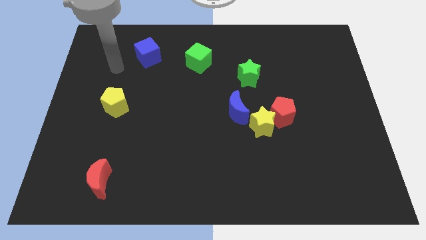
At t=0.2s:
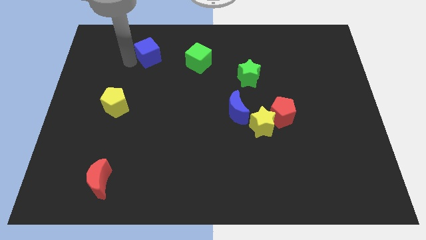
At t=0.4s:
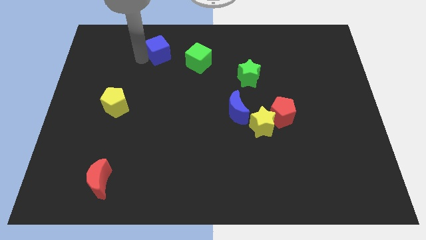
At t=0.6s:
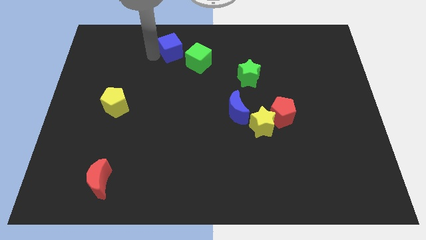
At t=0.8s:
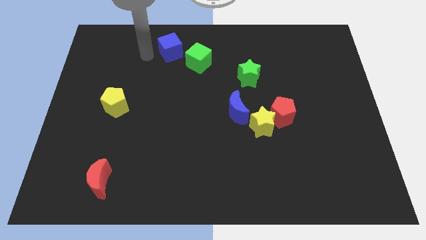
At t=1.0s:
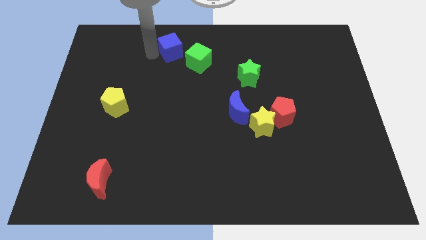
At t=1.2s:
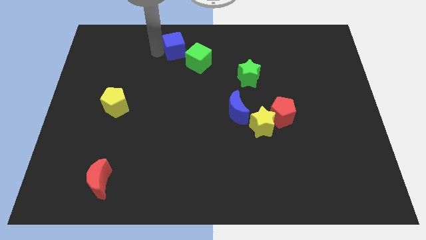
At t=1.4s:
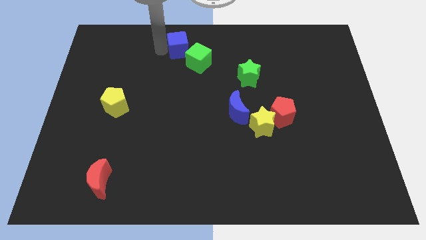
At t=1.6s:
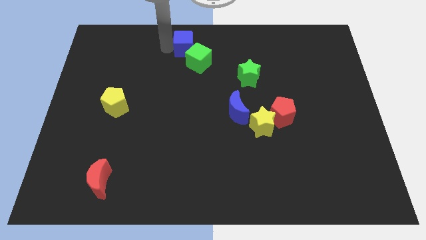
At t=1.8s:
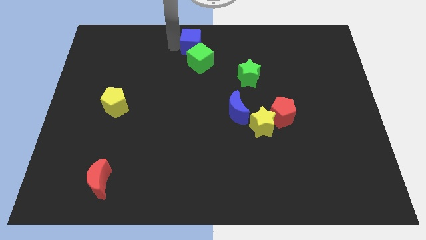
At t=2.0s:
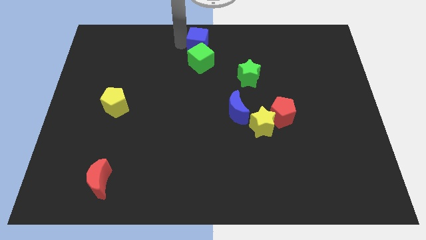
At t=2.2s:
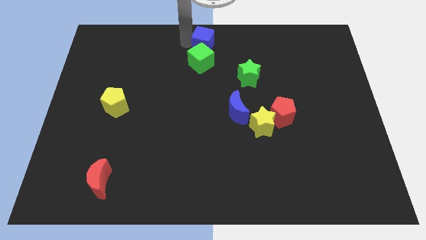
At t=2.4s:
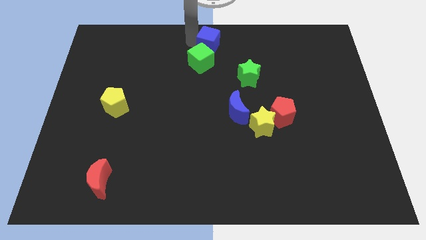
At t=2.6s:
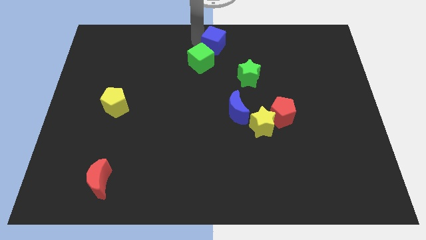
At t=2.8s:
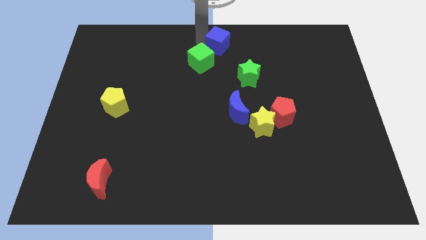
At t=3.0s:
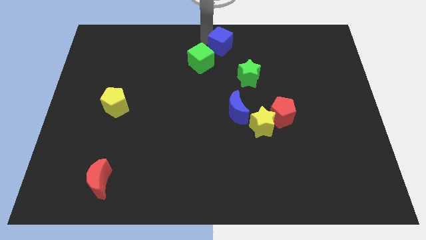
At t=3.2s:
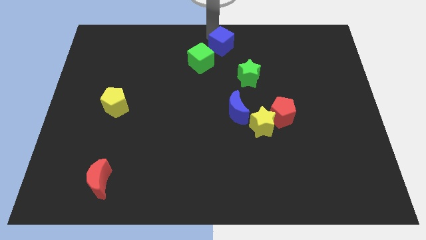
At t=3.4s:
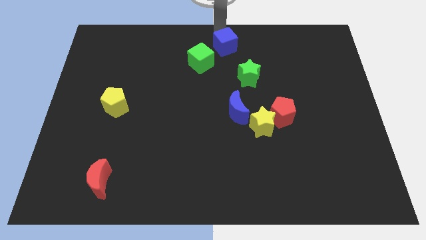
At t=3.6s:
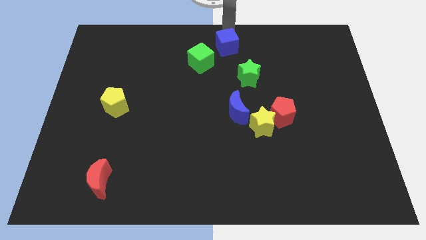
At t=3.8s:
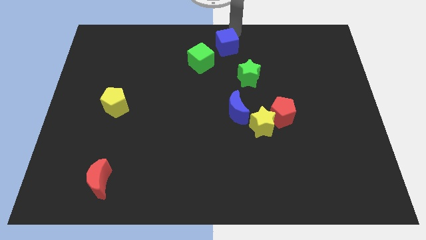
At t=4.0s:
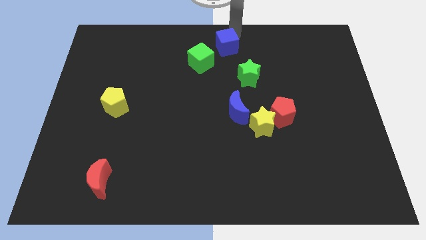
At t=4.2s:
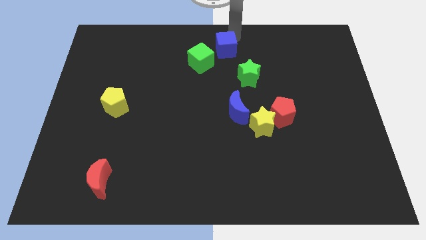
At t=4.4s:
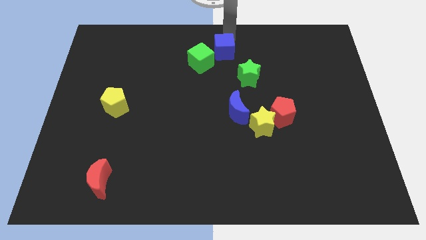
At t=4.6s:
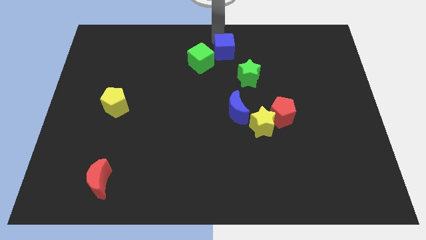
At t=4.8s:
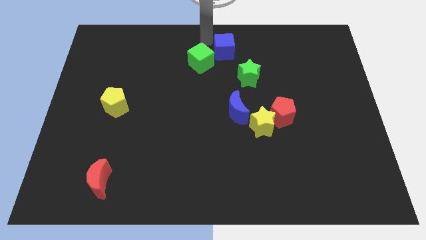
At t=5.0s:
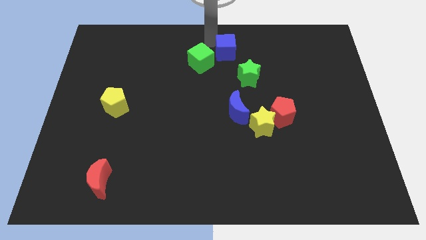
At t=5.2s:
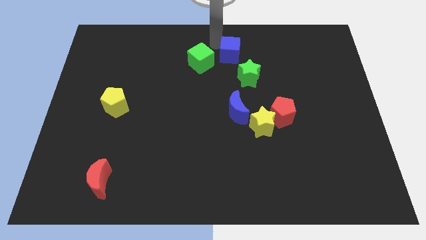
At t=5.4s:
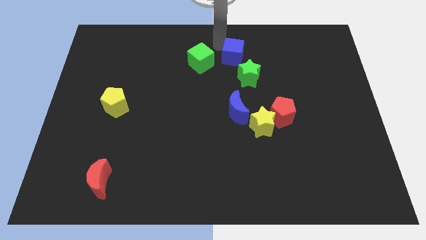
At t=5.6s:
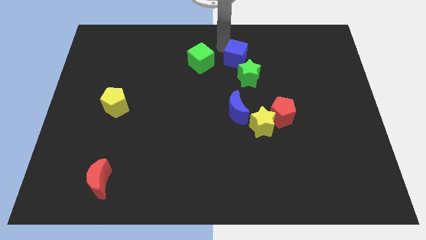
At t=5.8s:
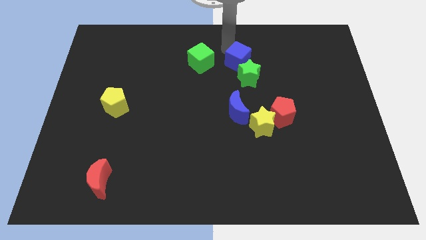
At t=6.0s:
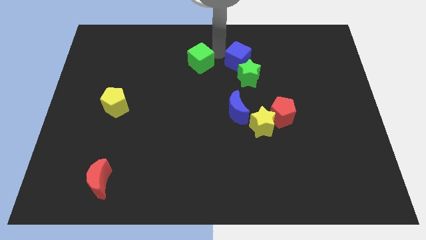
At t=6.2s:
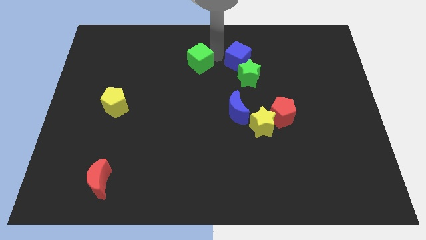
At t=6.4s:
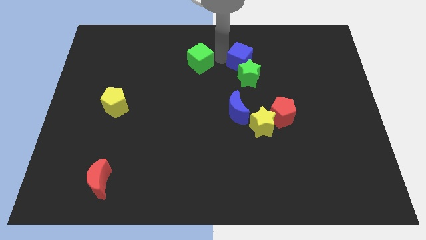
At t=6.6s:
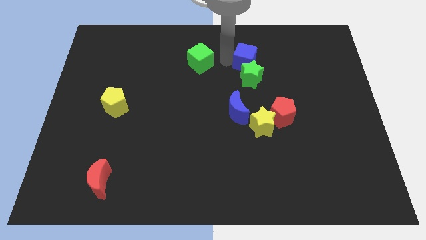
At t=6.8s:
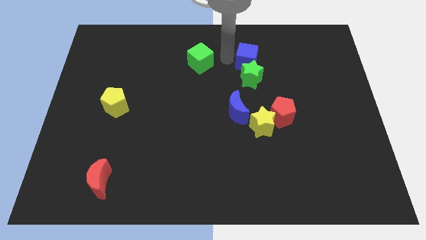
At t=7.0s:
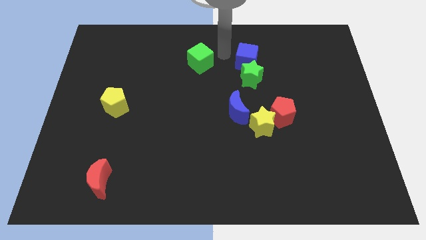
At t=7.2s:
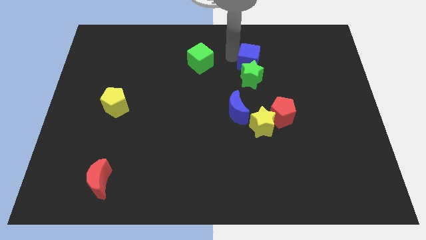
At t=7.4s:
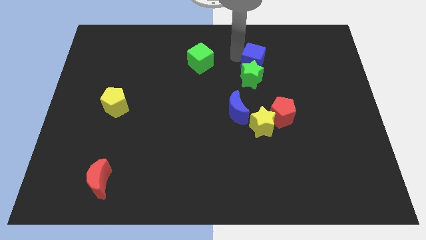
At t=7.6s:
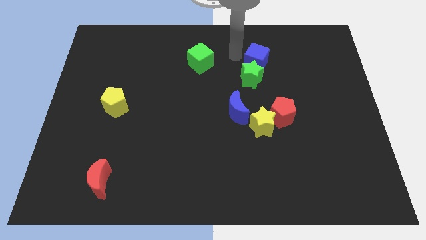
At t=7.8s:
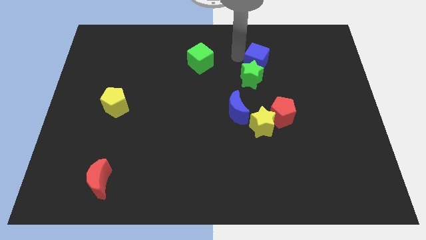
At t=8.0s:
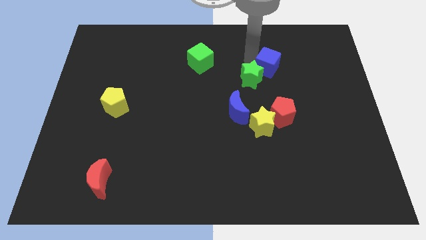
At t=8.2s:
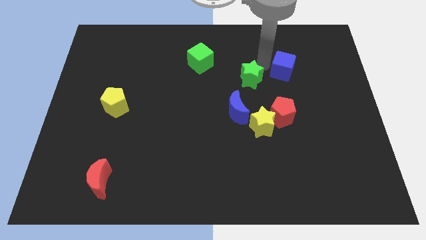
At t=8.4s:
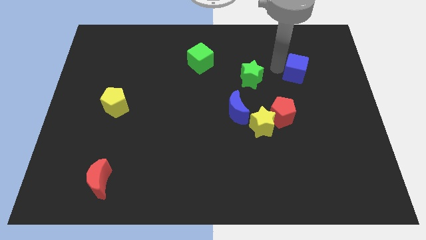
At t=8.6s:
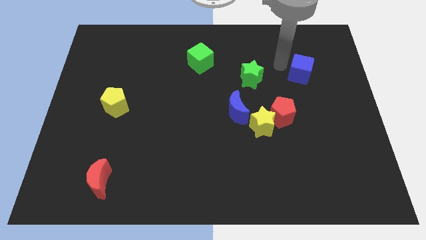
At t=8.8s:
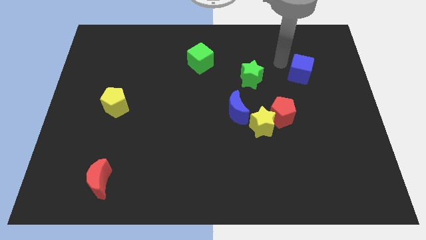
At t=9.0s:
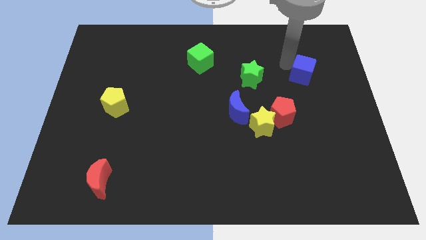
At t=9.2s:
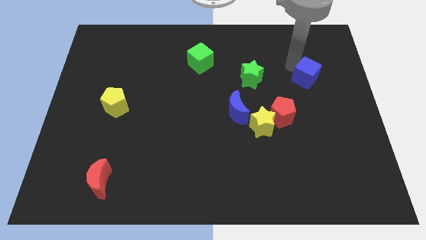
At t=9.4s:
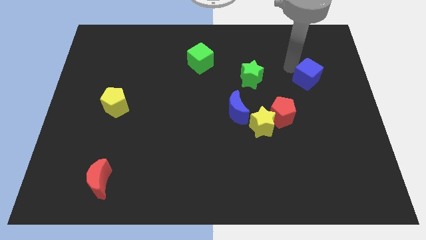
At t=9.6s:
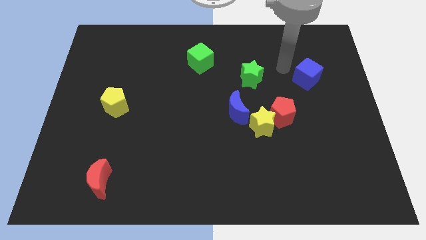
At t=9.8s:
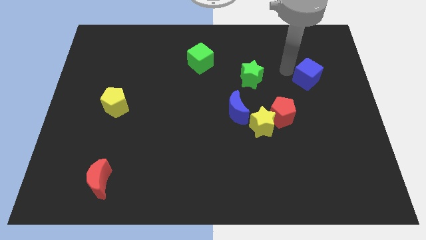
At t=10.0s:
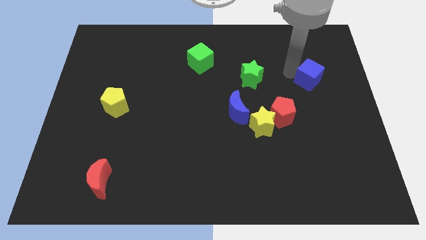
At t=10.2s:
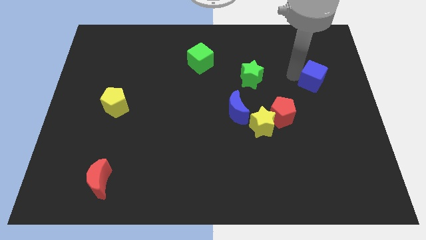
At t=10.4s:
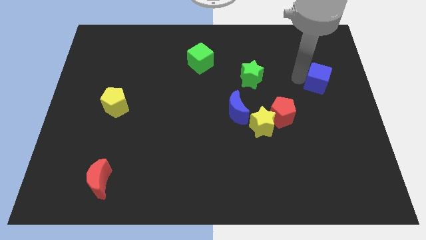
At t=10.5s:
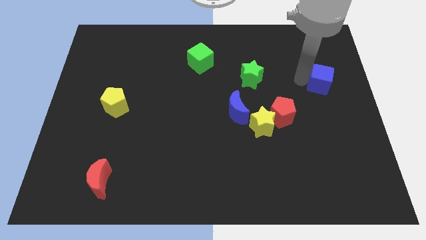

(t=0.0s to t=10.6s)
push the blue cube to the center right
